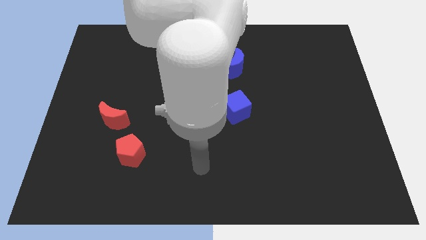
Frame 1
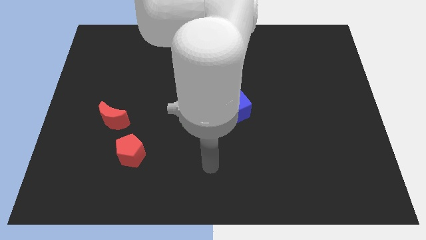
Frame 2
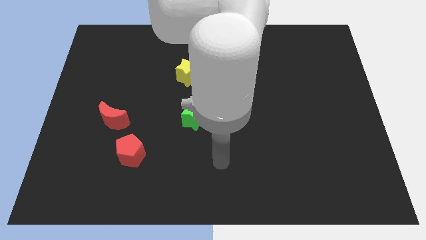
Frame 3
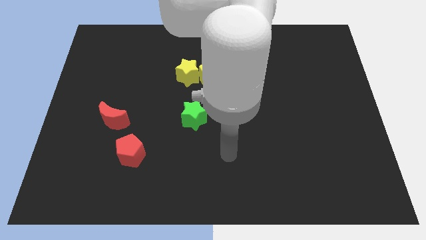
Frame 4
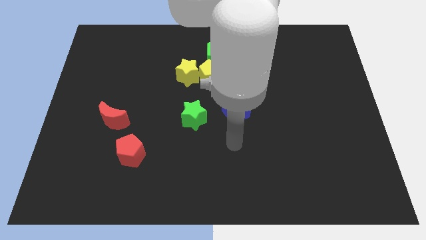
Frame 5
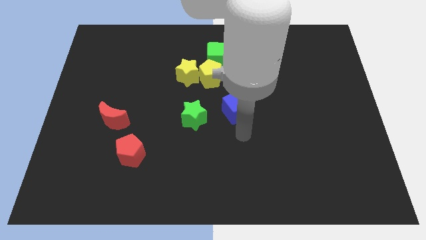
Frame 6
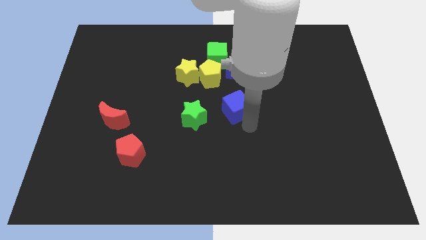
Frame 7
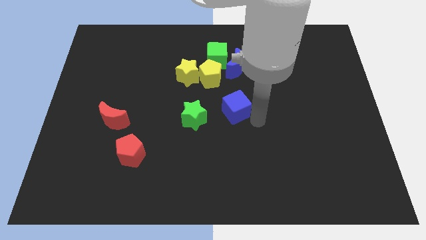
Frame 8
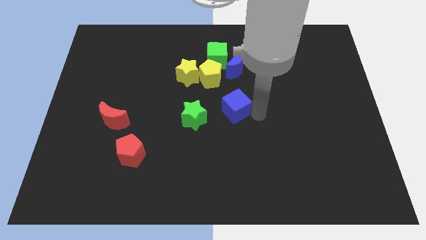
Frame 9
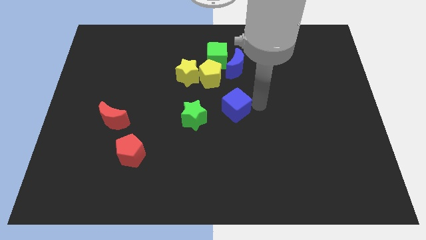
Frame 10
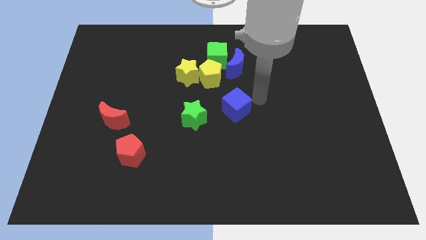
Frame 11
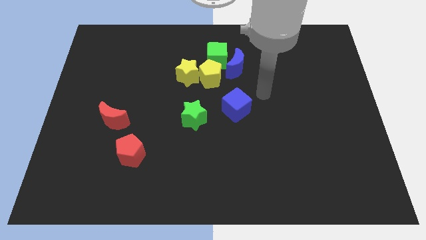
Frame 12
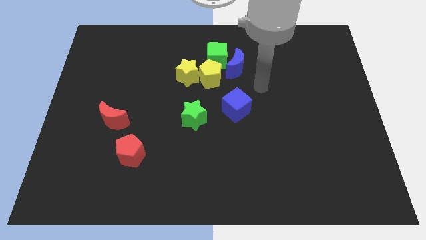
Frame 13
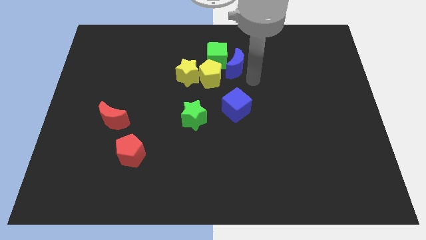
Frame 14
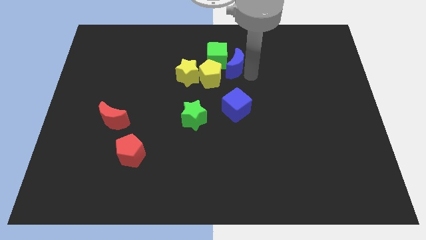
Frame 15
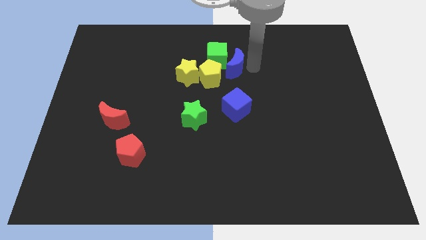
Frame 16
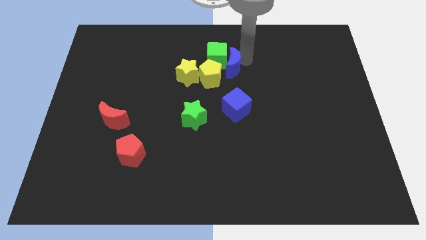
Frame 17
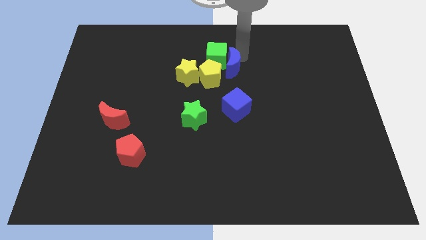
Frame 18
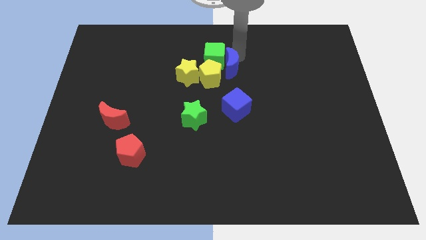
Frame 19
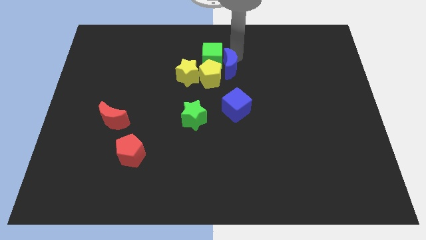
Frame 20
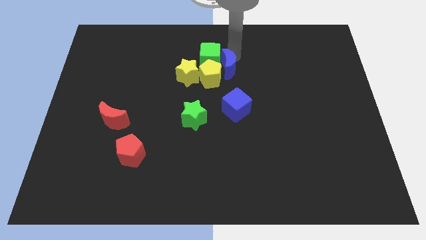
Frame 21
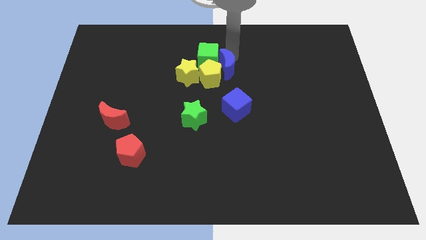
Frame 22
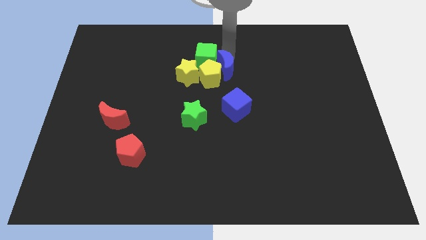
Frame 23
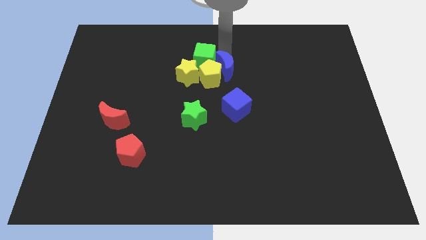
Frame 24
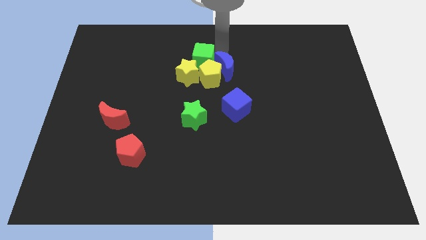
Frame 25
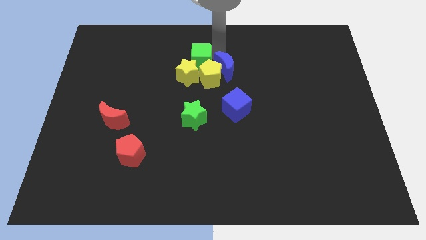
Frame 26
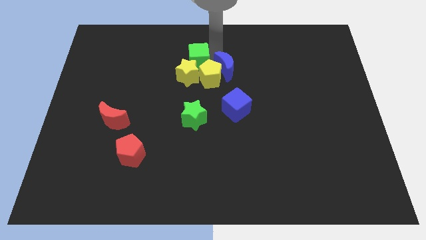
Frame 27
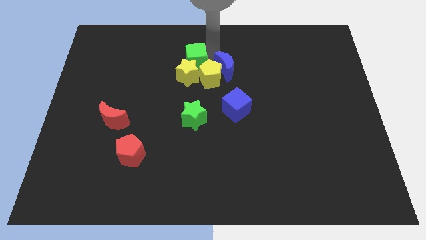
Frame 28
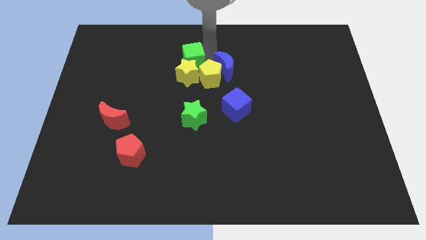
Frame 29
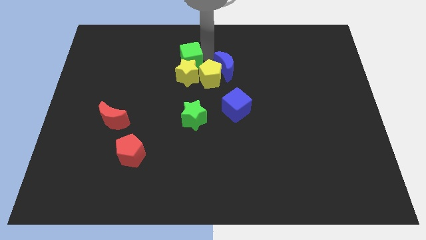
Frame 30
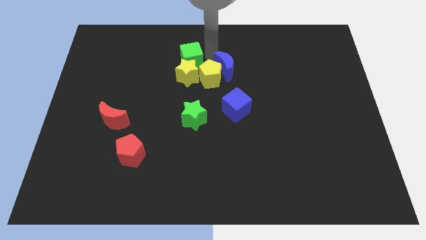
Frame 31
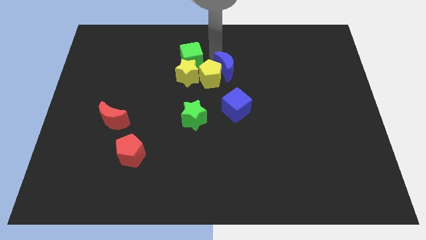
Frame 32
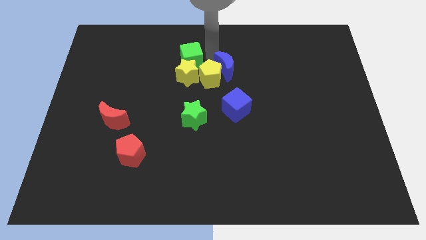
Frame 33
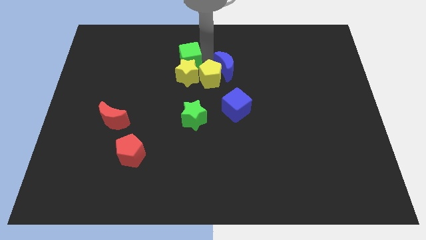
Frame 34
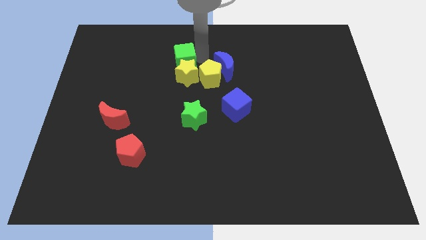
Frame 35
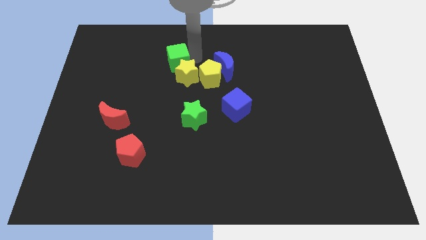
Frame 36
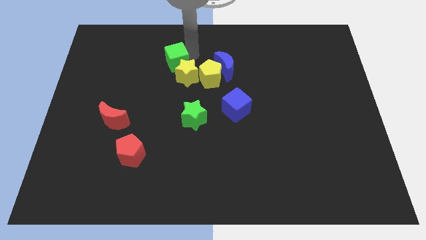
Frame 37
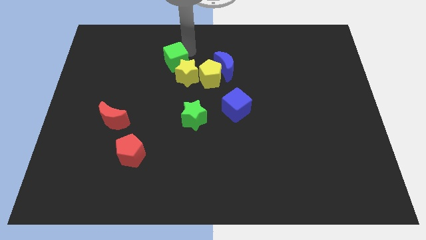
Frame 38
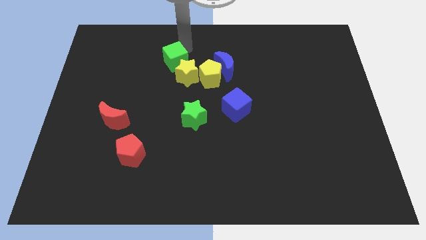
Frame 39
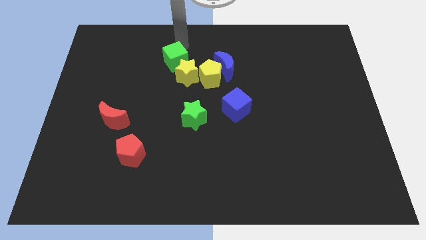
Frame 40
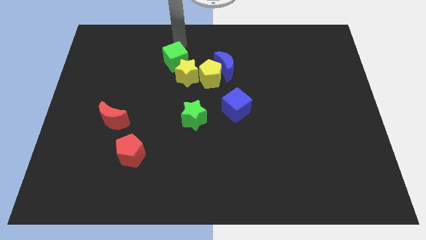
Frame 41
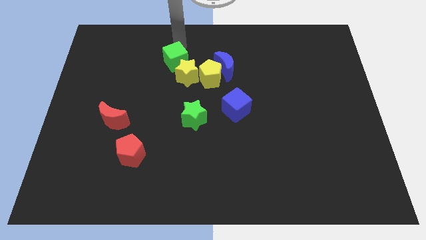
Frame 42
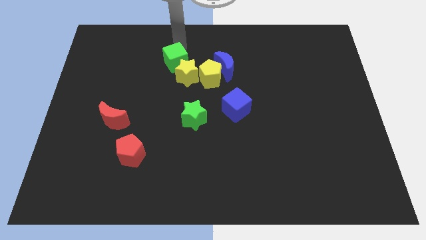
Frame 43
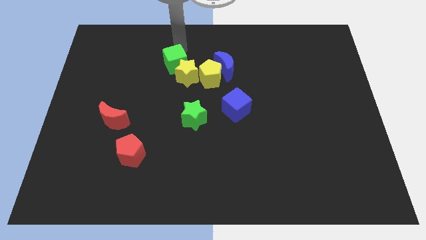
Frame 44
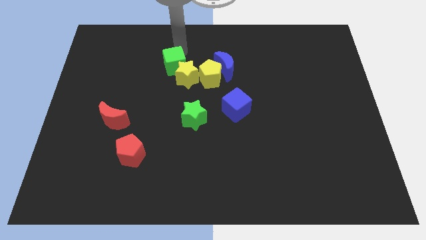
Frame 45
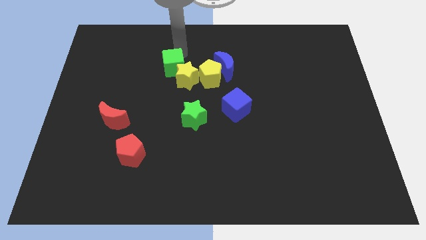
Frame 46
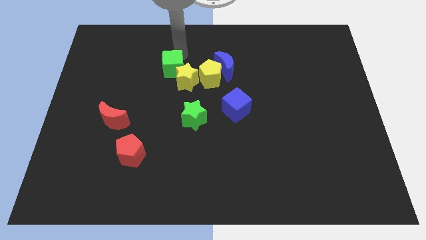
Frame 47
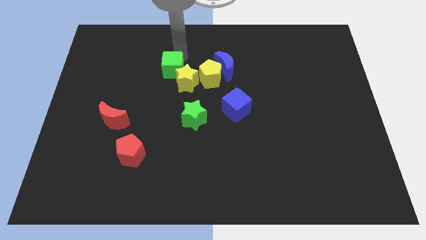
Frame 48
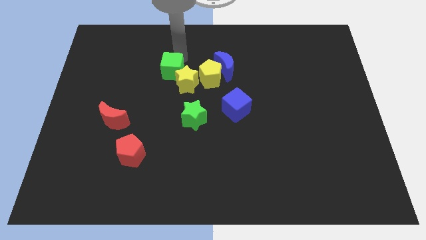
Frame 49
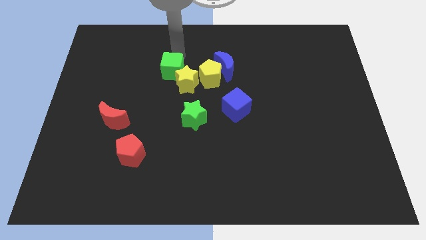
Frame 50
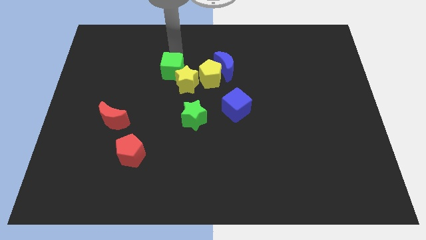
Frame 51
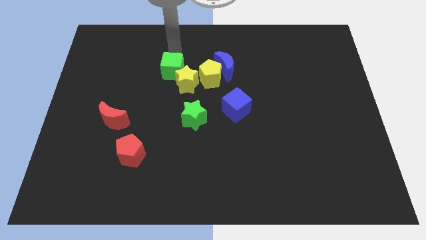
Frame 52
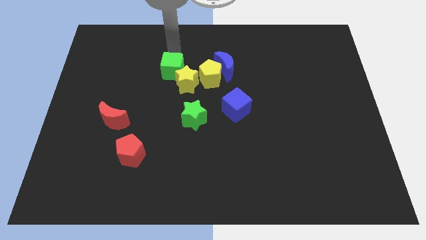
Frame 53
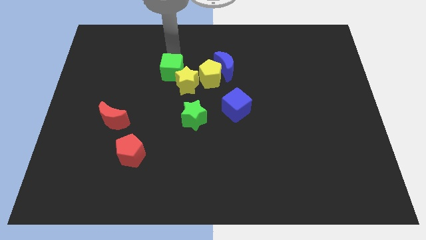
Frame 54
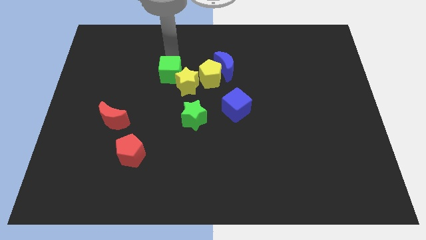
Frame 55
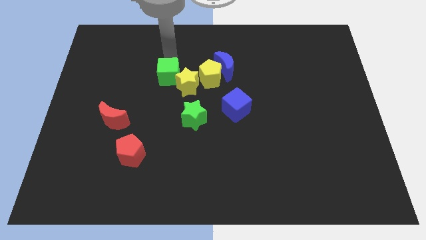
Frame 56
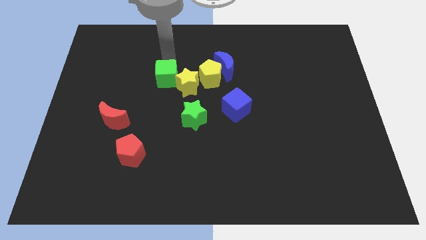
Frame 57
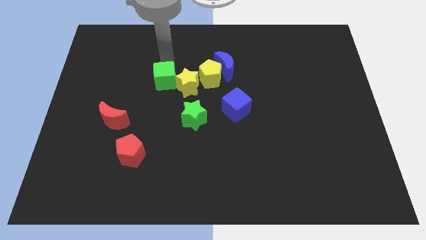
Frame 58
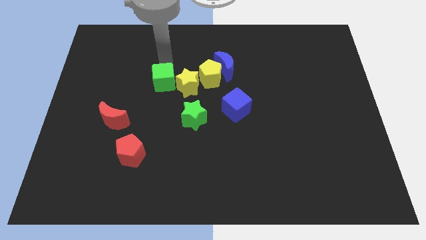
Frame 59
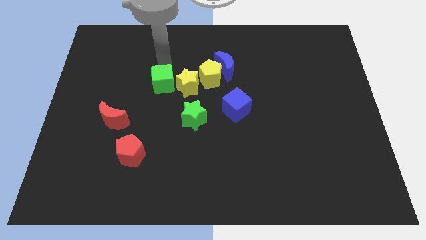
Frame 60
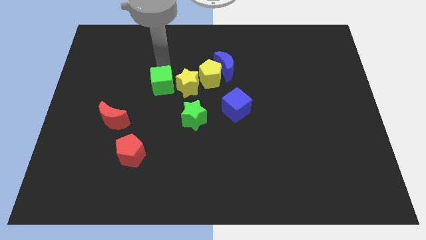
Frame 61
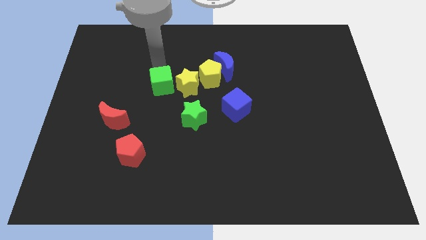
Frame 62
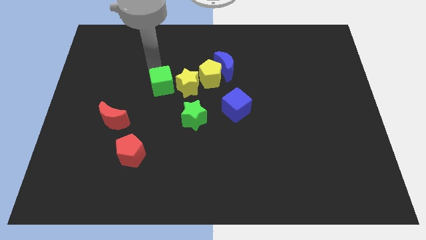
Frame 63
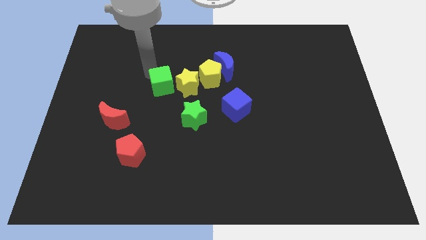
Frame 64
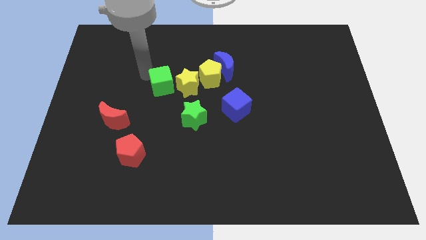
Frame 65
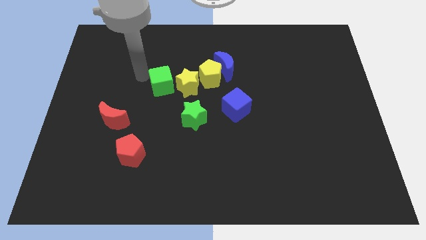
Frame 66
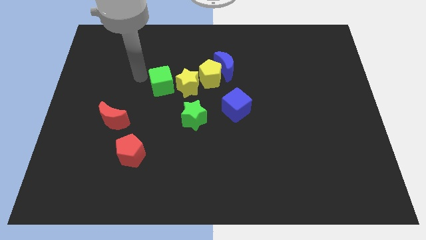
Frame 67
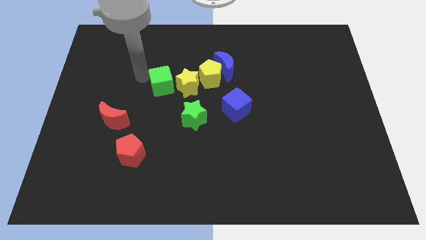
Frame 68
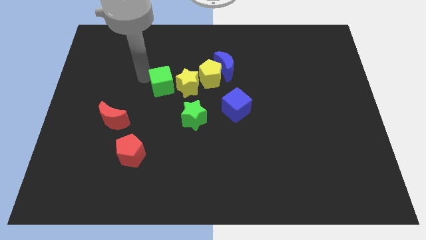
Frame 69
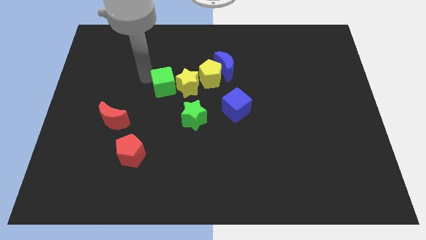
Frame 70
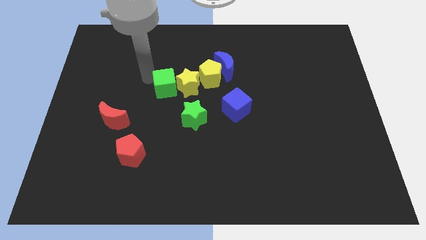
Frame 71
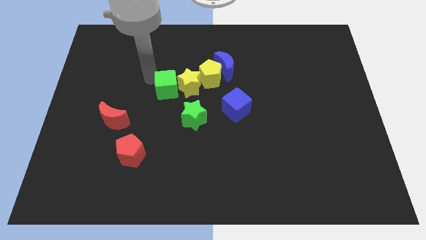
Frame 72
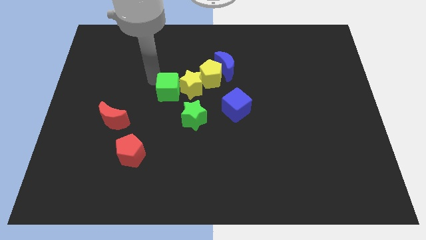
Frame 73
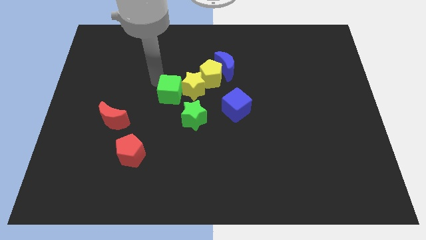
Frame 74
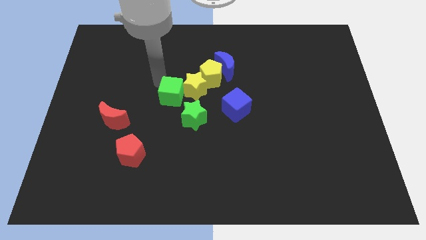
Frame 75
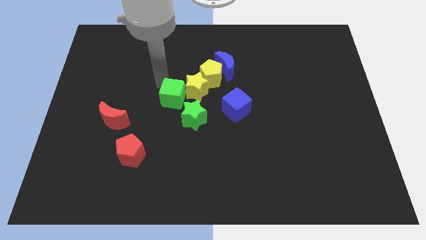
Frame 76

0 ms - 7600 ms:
slightly move the green cube down
